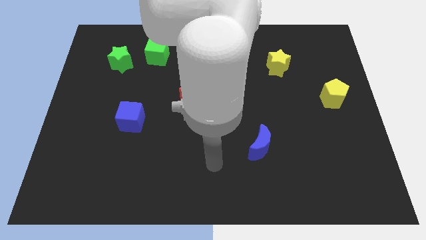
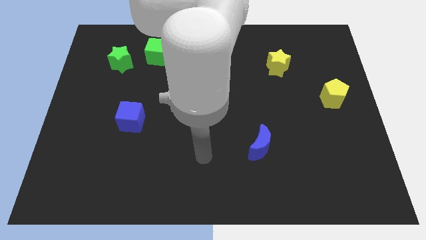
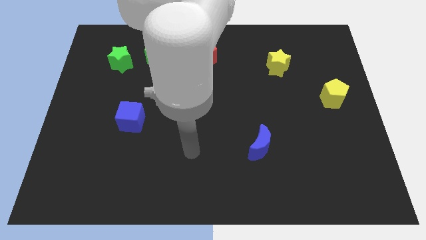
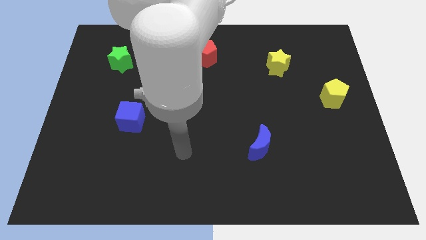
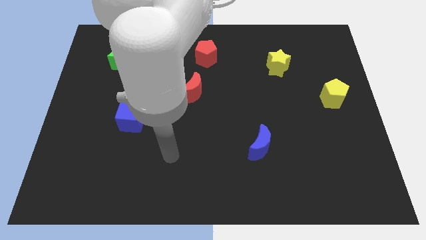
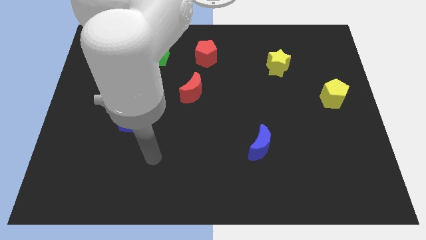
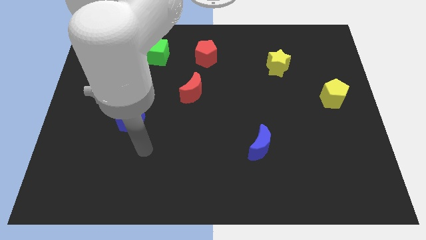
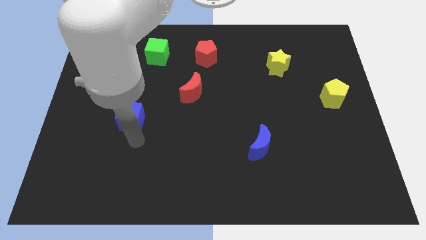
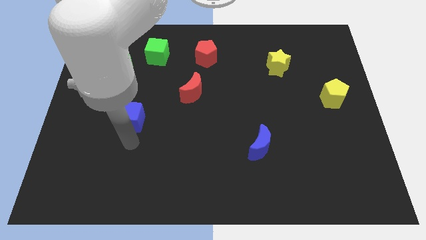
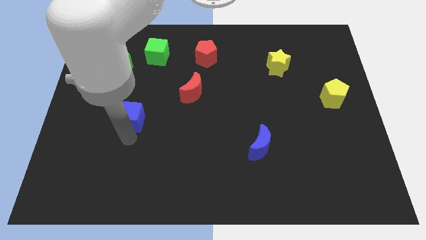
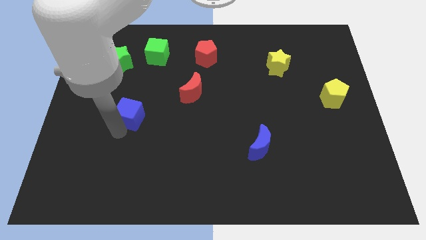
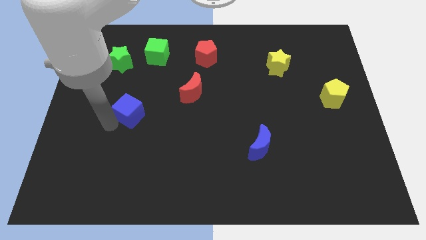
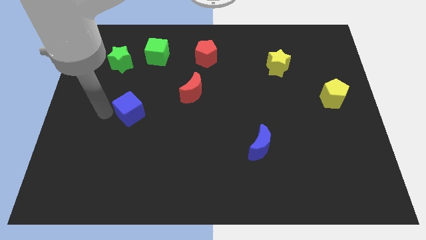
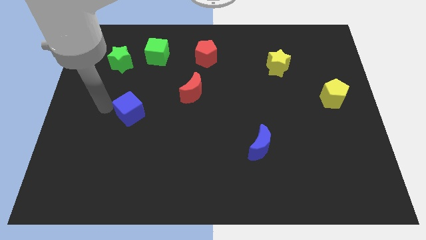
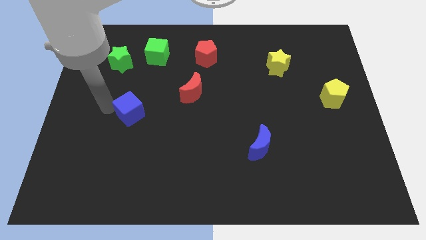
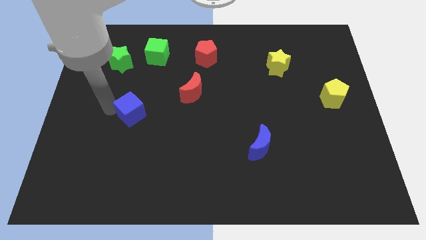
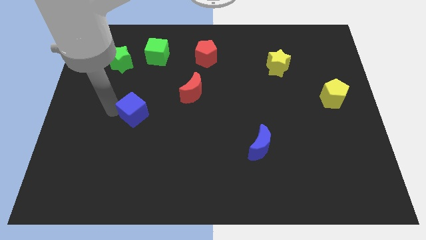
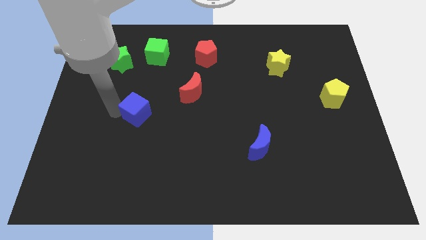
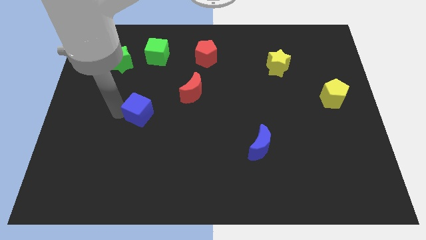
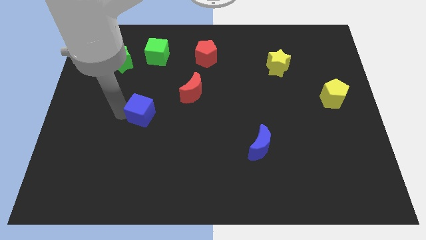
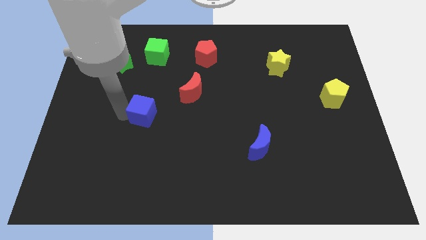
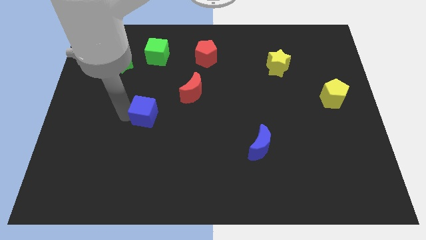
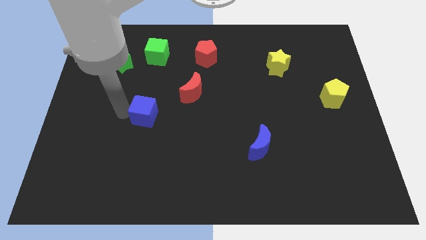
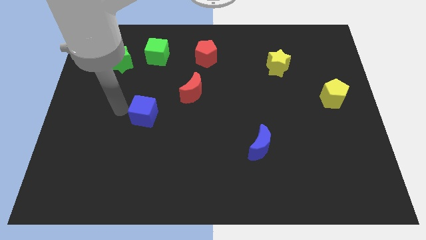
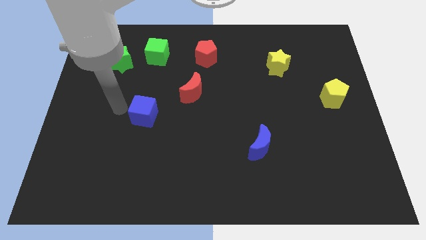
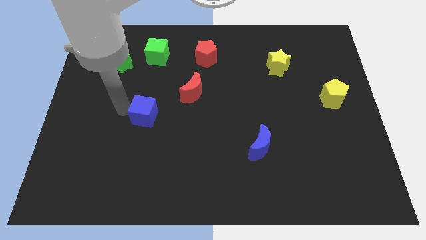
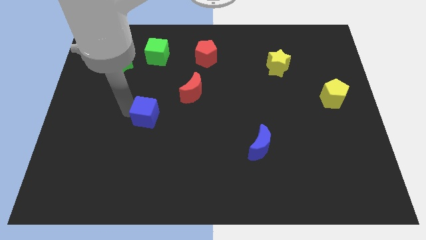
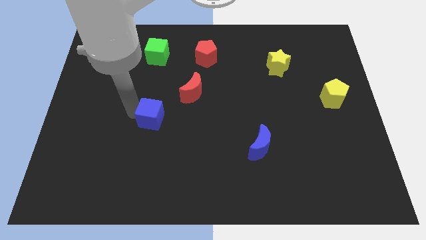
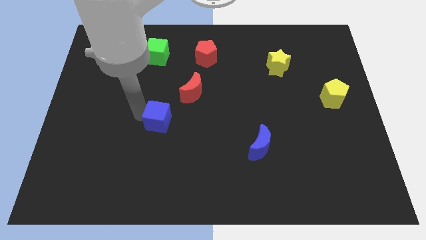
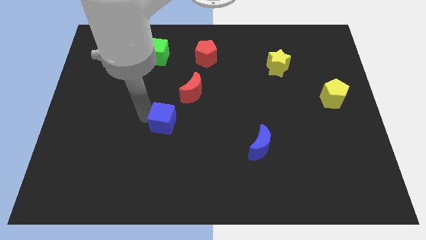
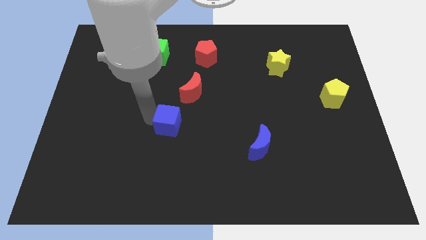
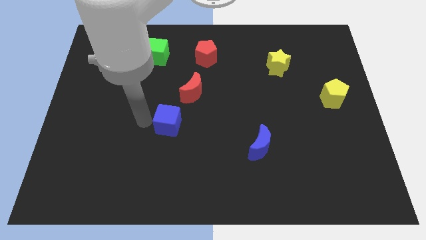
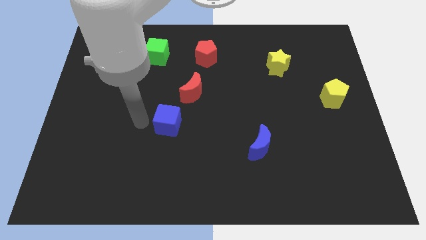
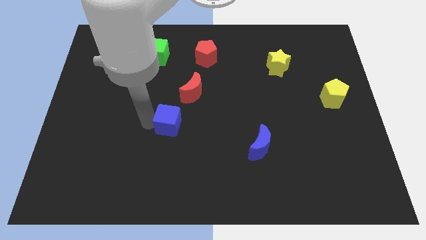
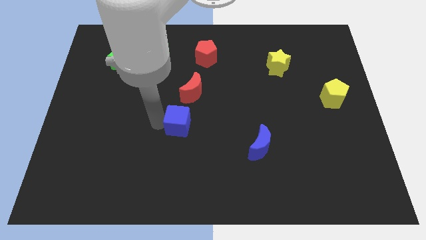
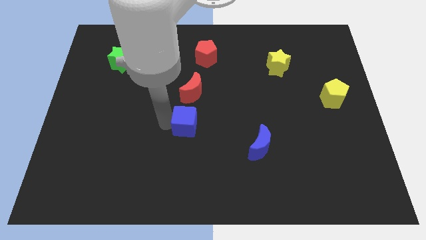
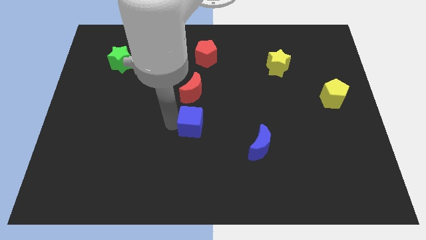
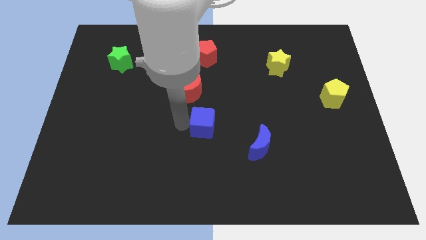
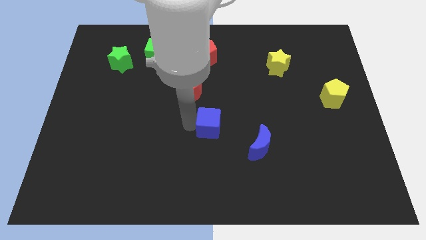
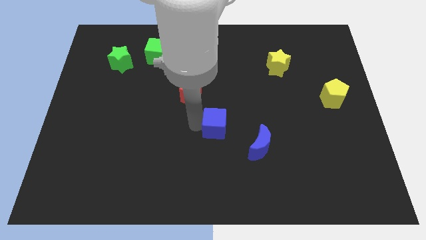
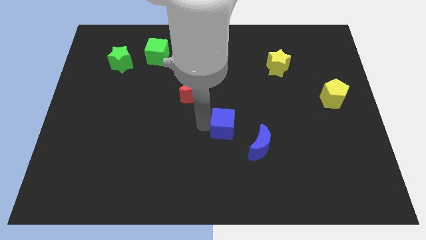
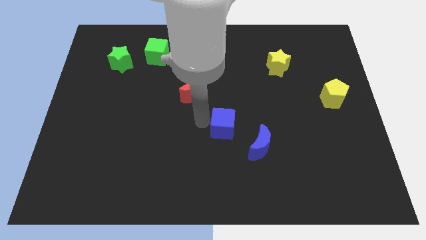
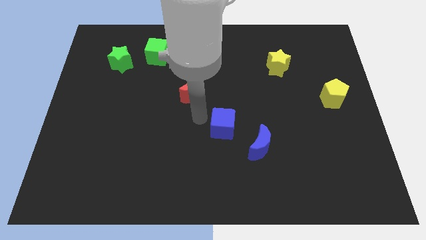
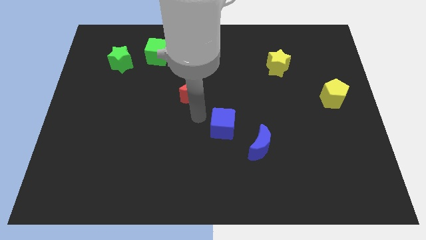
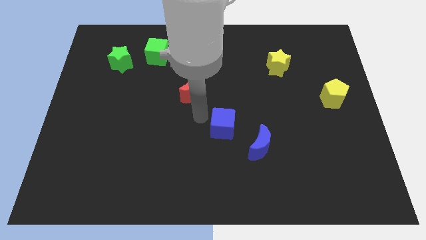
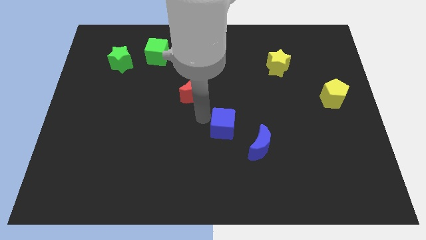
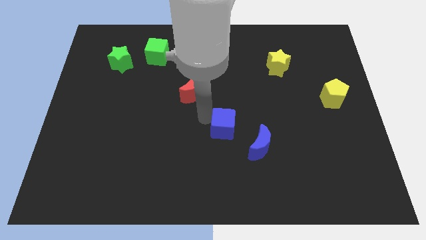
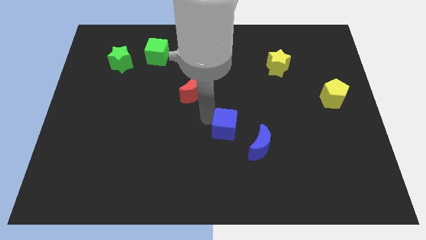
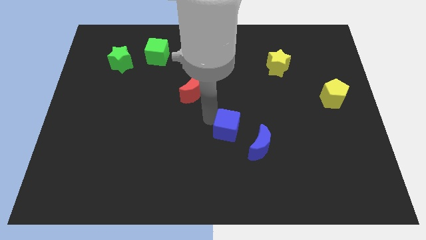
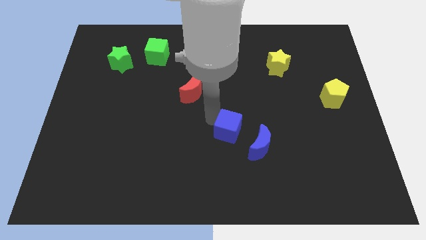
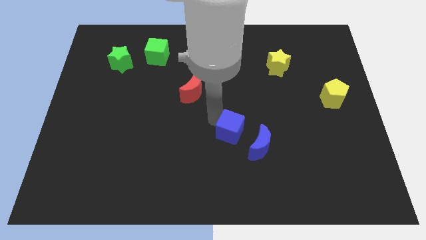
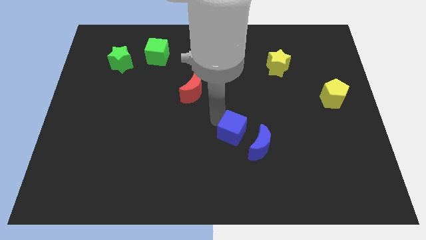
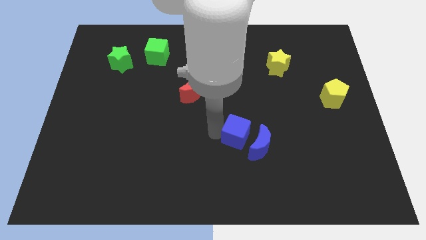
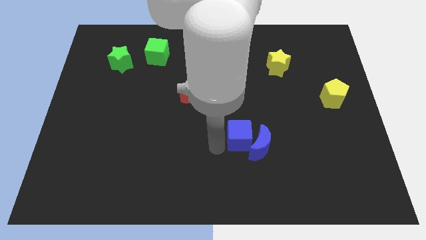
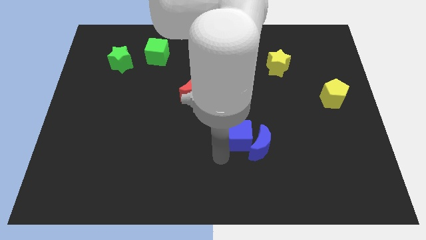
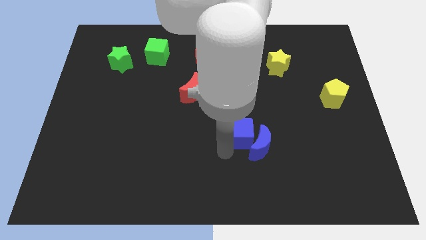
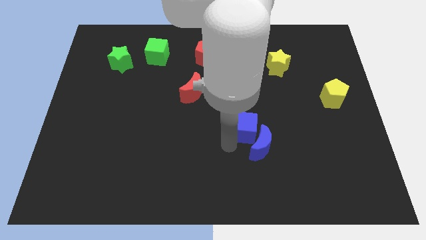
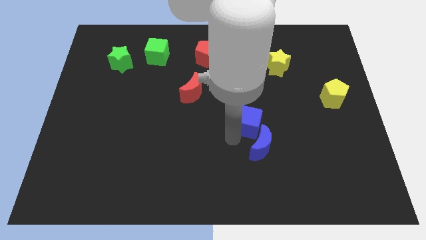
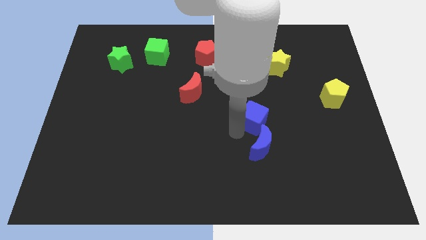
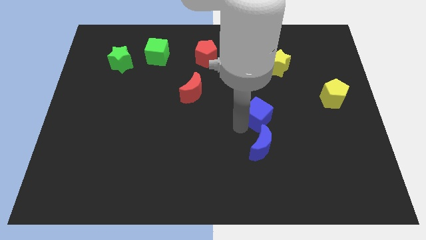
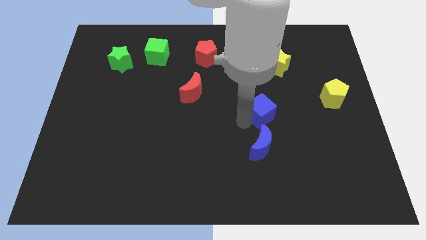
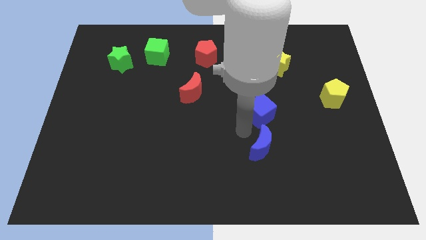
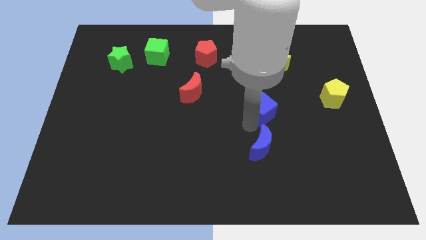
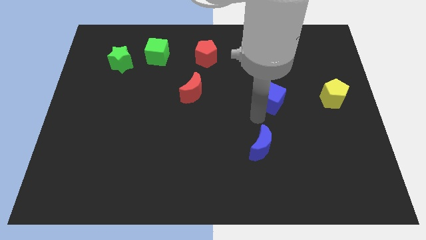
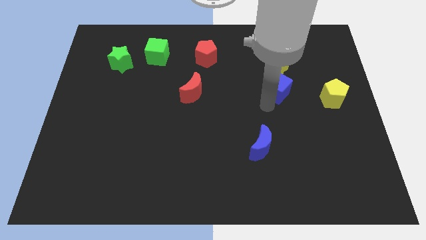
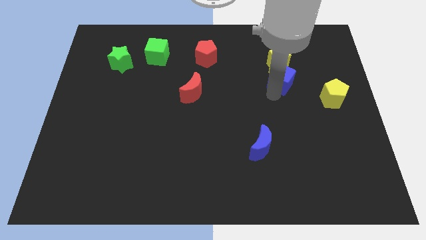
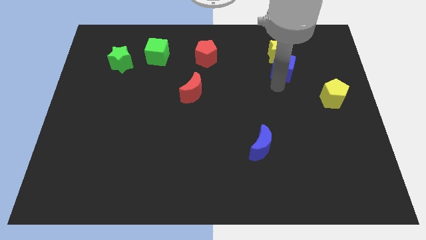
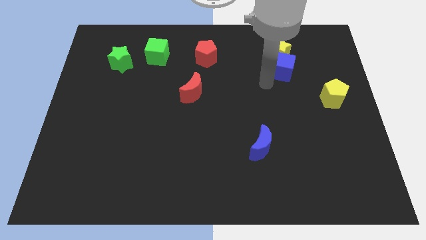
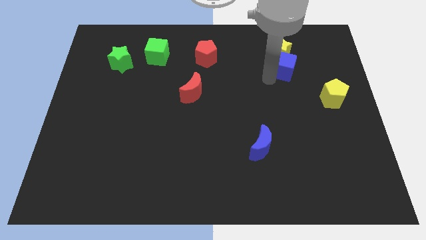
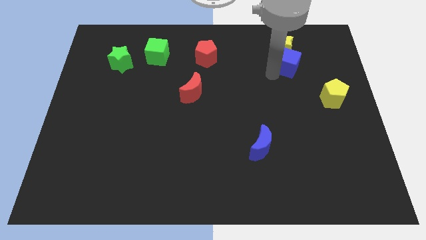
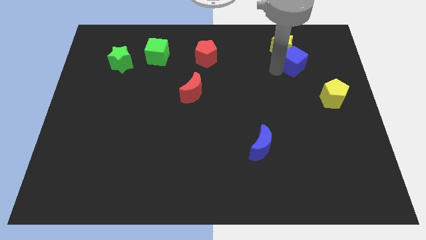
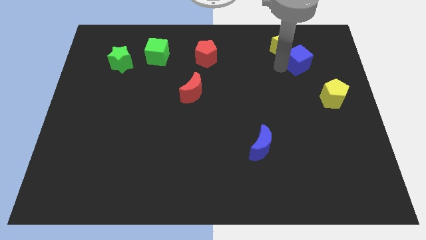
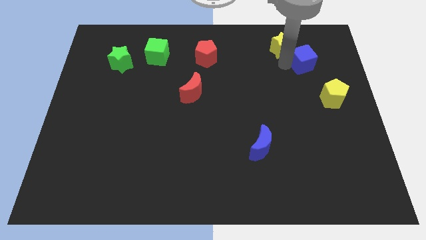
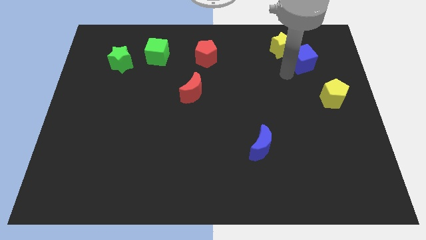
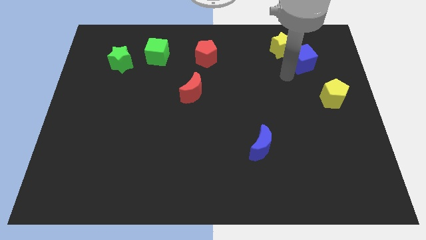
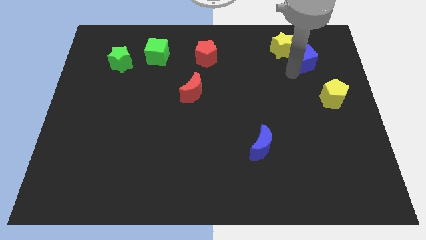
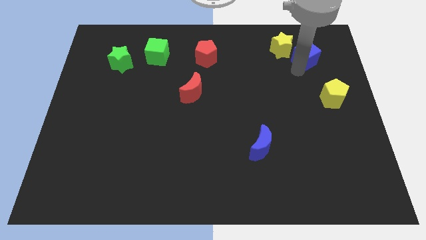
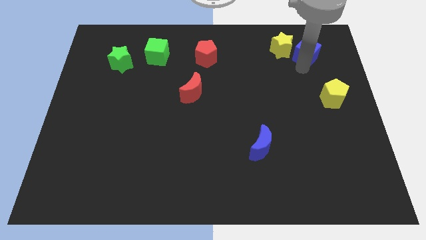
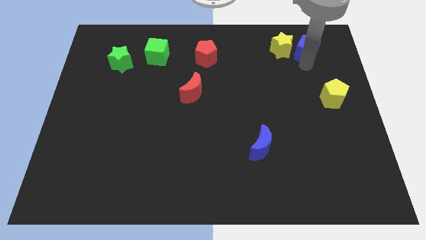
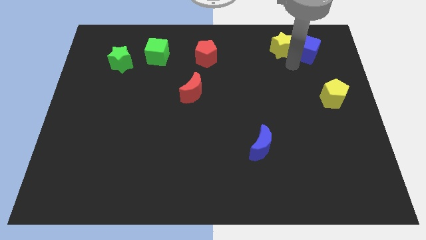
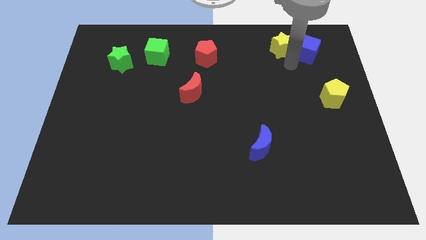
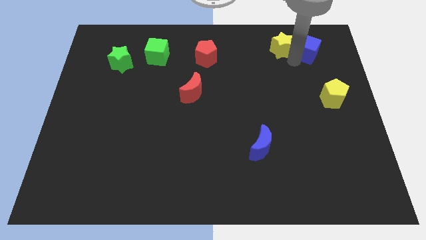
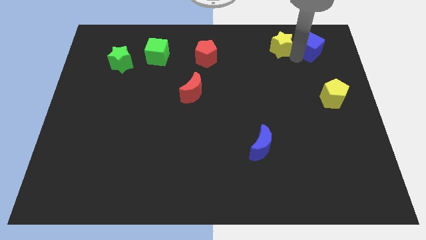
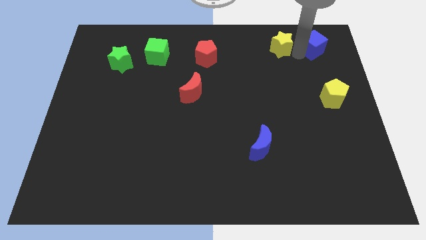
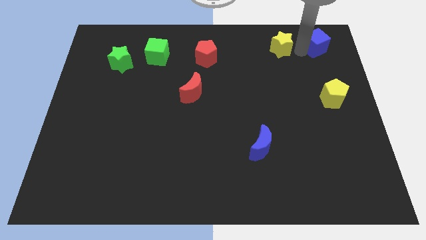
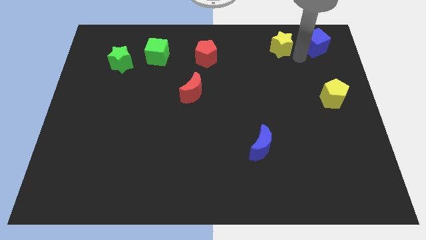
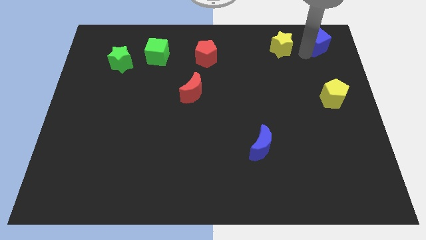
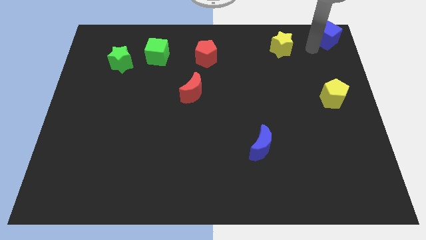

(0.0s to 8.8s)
move the blue cube to the top right
